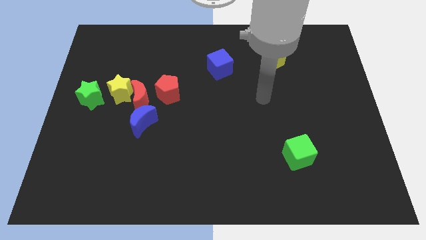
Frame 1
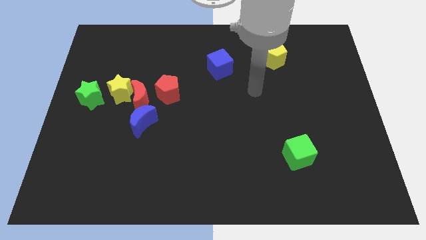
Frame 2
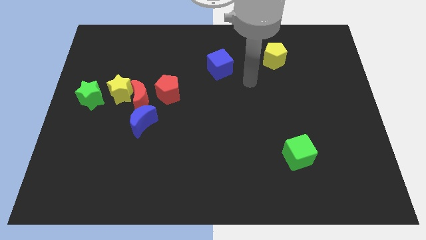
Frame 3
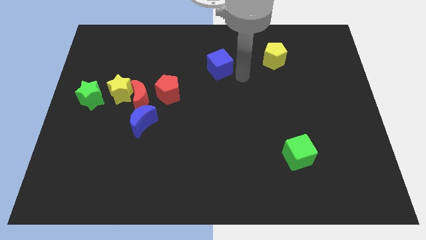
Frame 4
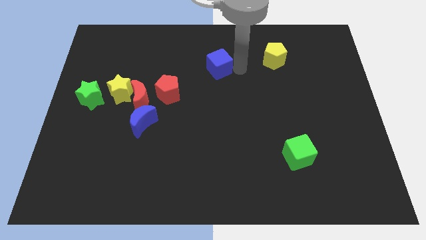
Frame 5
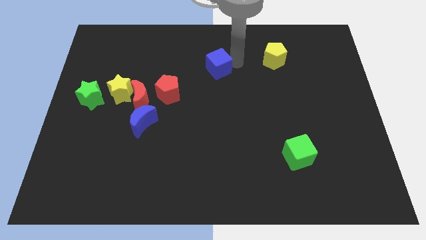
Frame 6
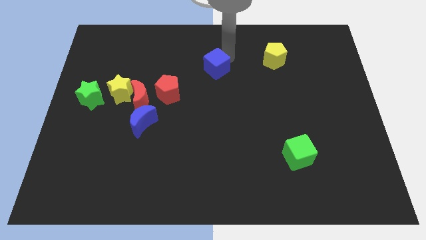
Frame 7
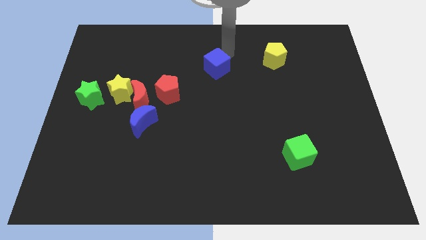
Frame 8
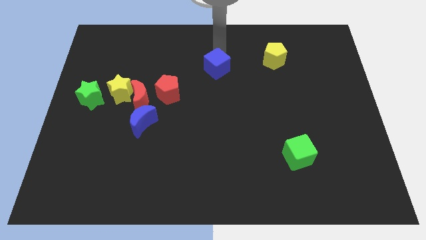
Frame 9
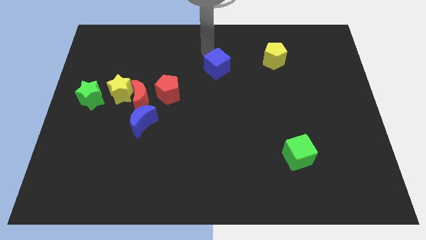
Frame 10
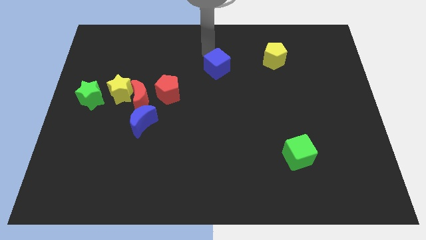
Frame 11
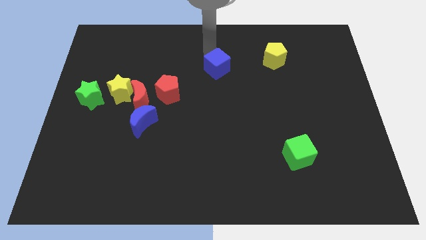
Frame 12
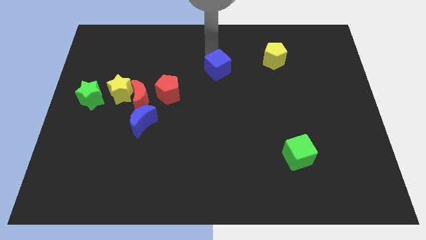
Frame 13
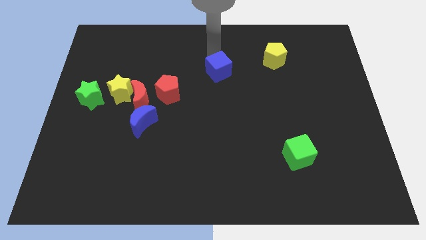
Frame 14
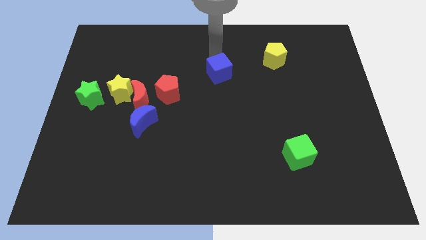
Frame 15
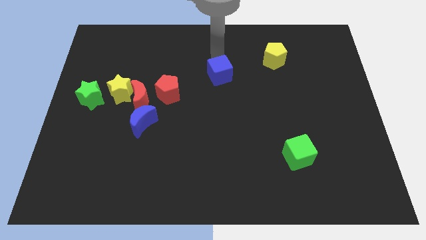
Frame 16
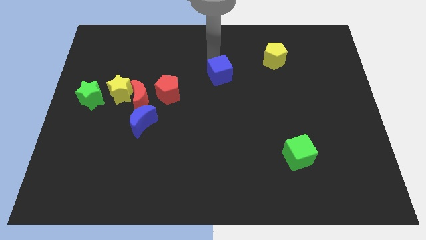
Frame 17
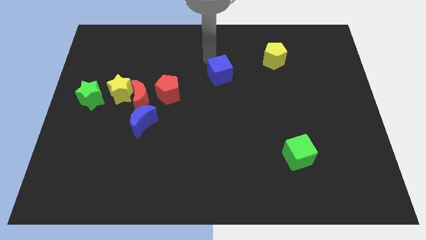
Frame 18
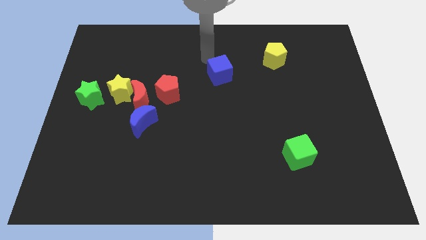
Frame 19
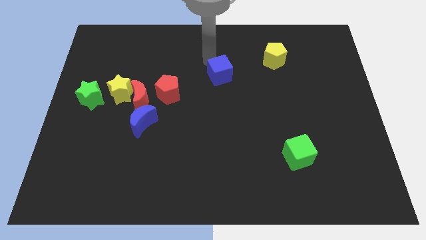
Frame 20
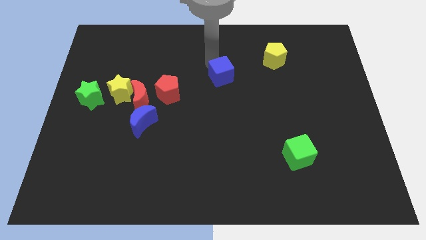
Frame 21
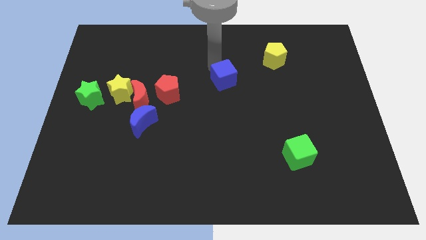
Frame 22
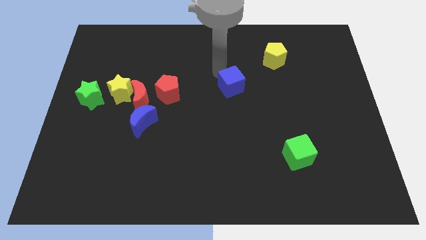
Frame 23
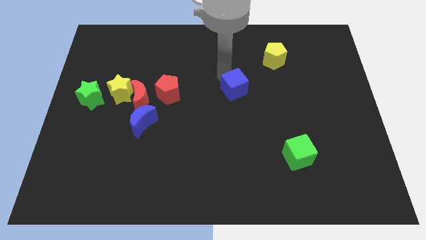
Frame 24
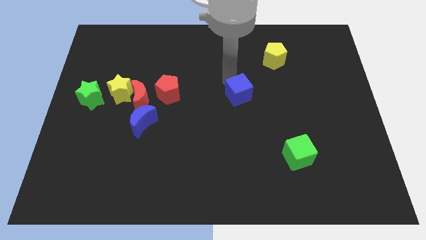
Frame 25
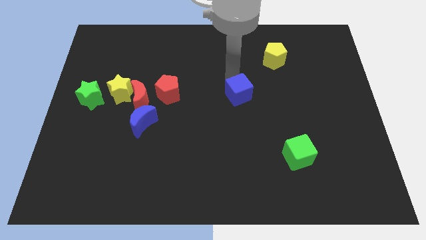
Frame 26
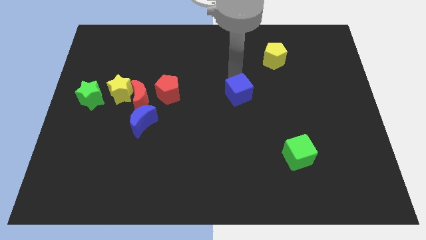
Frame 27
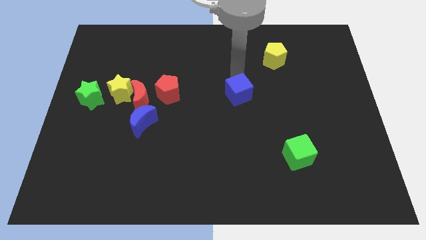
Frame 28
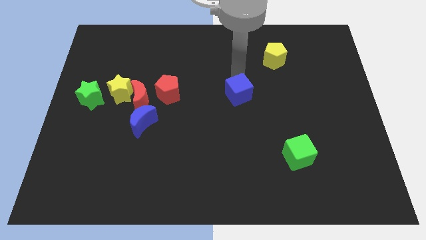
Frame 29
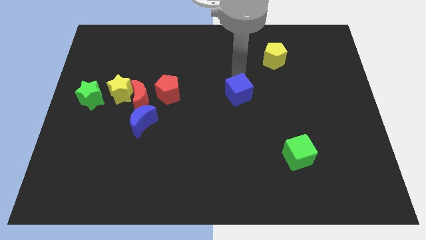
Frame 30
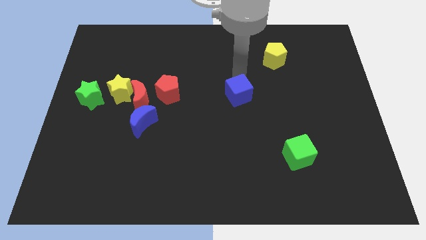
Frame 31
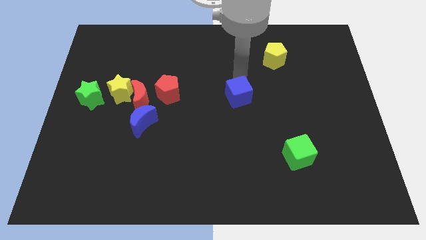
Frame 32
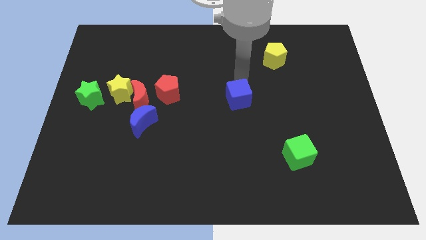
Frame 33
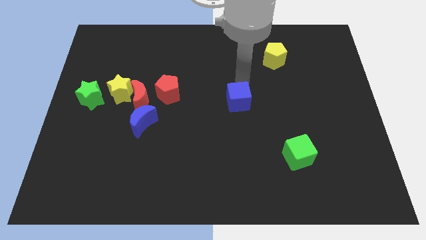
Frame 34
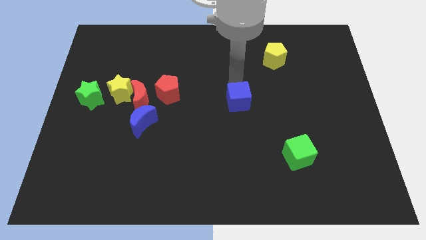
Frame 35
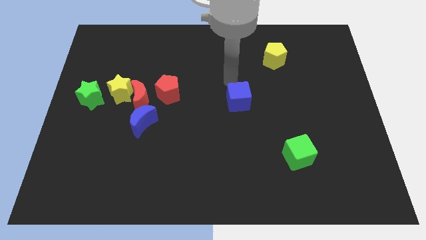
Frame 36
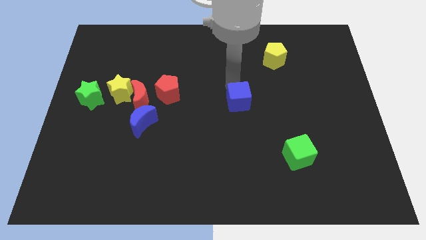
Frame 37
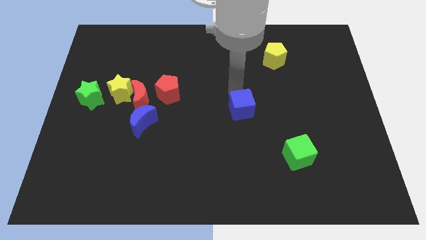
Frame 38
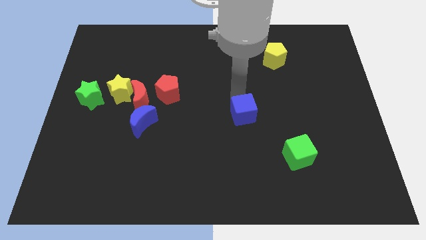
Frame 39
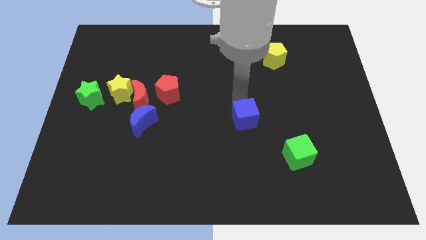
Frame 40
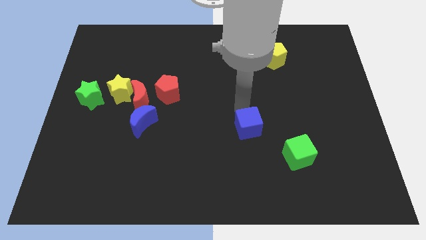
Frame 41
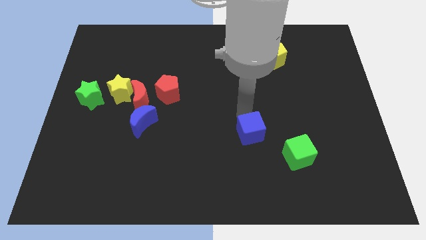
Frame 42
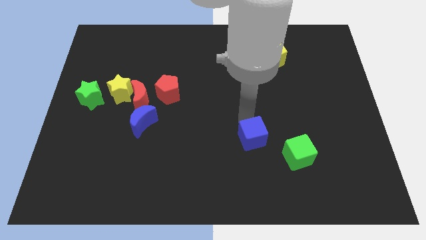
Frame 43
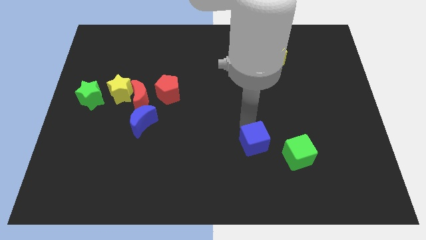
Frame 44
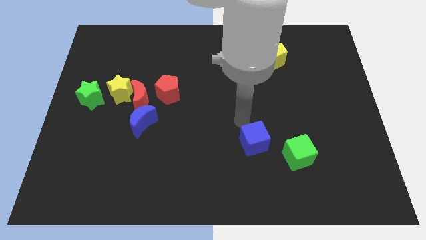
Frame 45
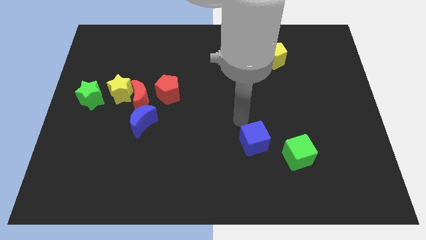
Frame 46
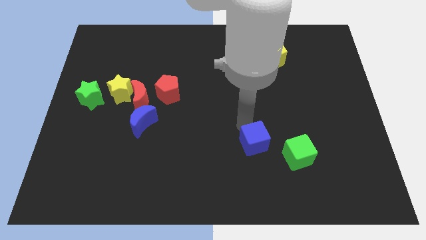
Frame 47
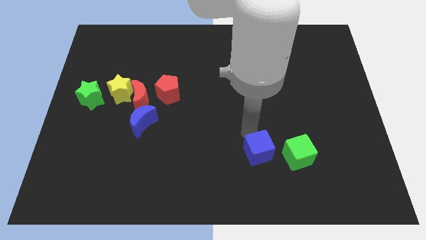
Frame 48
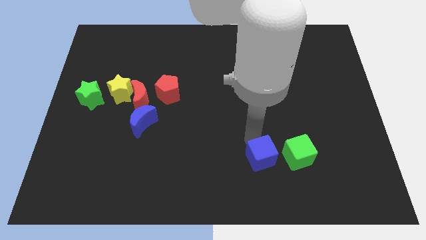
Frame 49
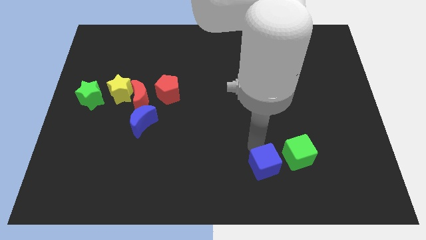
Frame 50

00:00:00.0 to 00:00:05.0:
slide the blue cube to the bottom left side of the green cube

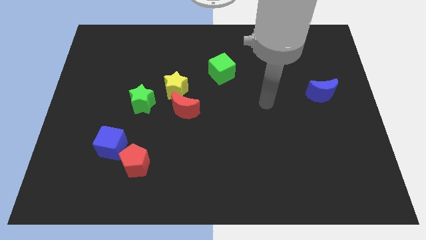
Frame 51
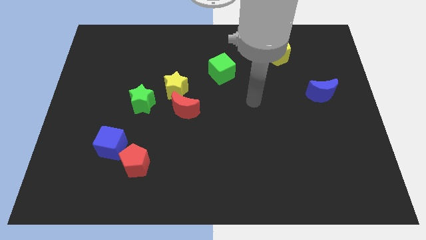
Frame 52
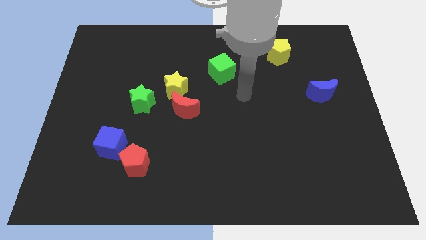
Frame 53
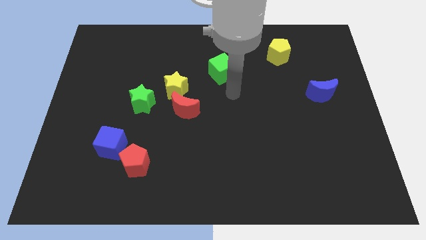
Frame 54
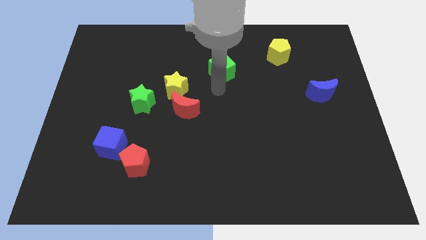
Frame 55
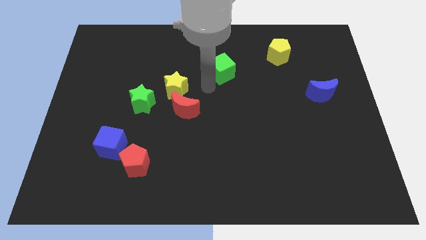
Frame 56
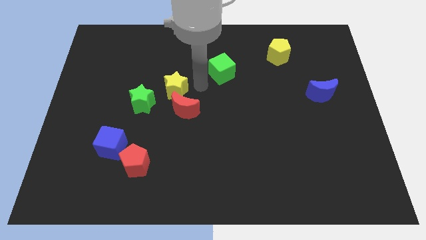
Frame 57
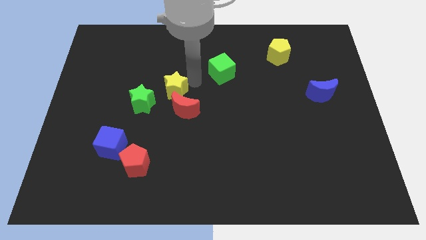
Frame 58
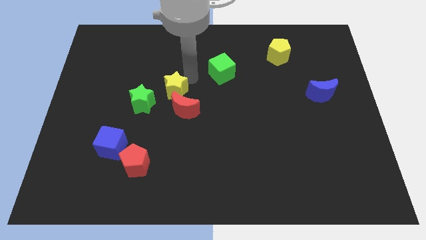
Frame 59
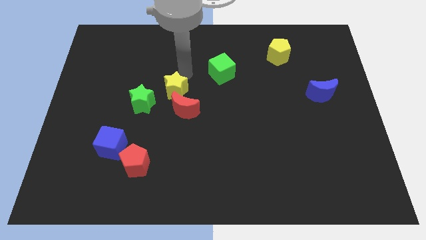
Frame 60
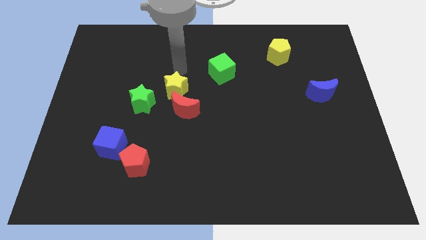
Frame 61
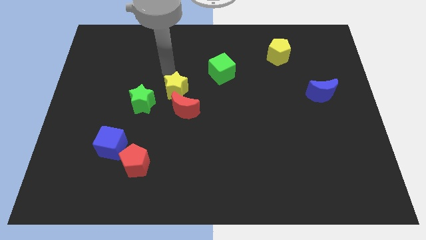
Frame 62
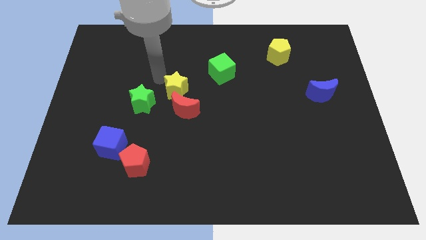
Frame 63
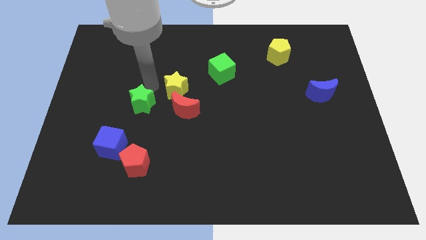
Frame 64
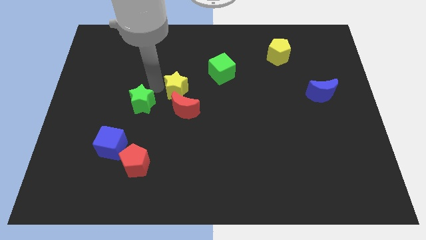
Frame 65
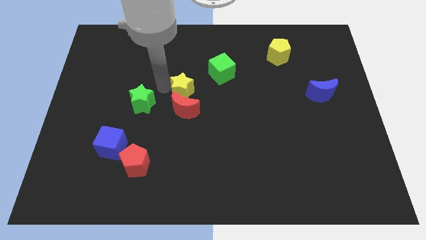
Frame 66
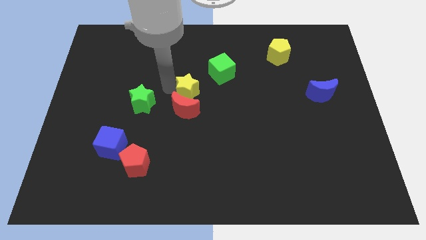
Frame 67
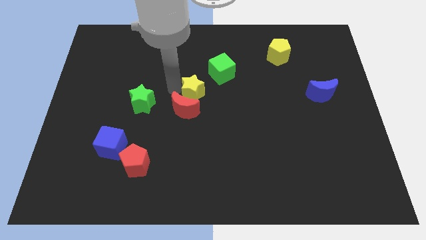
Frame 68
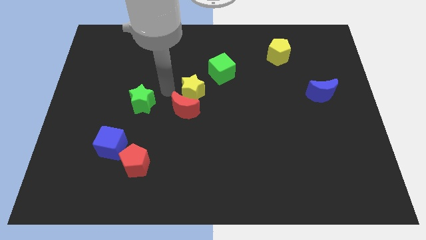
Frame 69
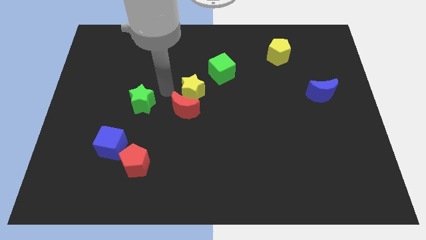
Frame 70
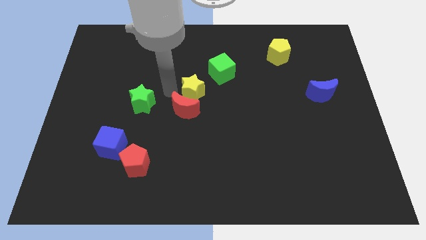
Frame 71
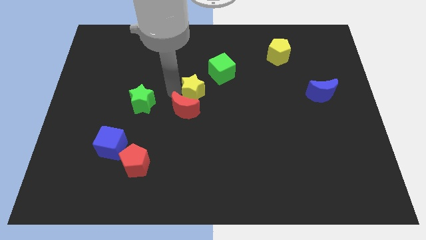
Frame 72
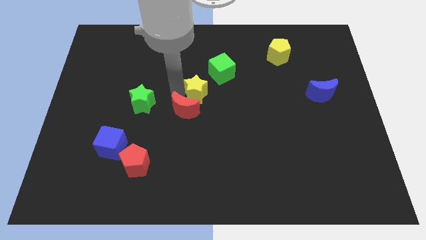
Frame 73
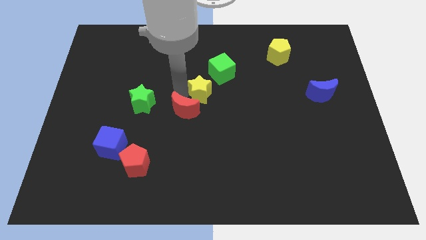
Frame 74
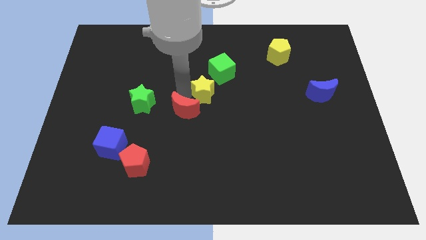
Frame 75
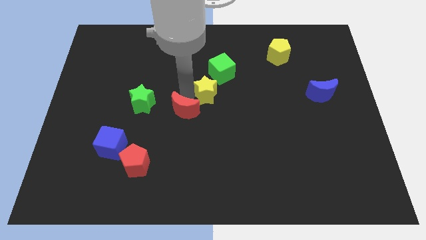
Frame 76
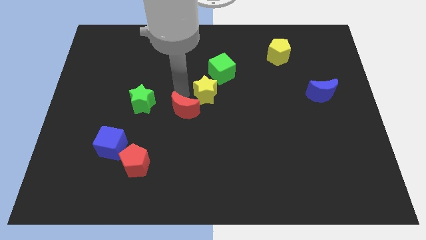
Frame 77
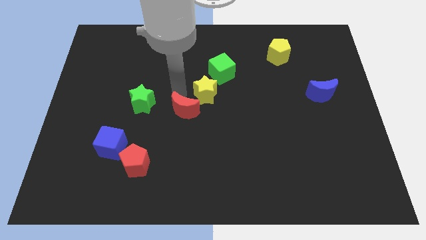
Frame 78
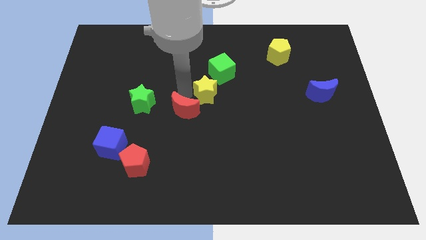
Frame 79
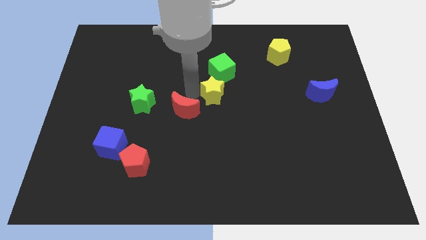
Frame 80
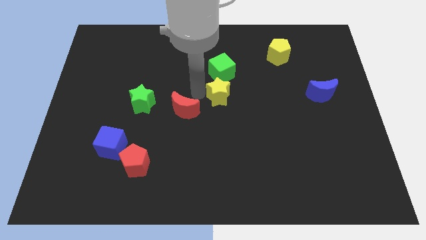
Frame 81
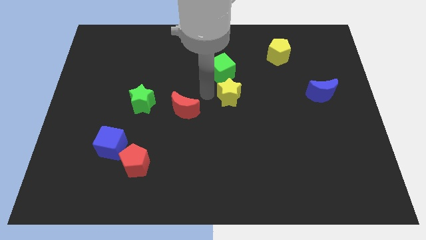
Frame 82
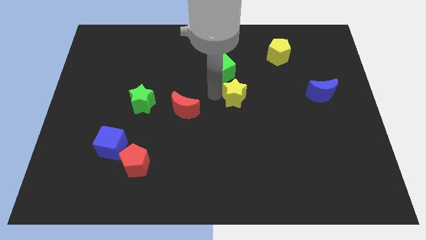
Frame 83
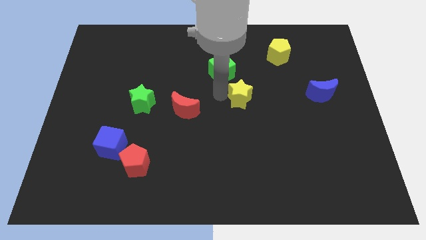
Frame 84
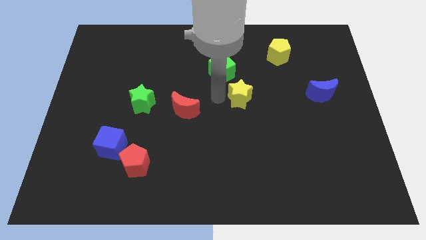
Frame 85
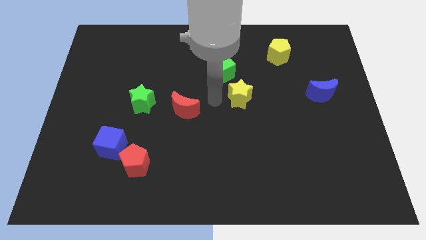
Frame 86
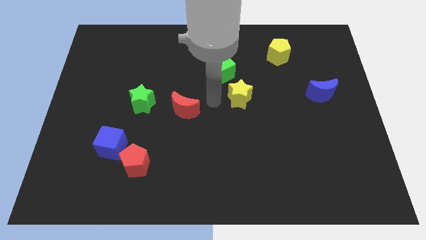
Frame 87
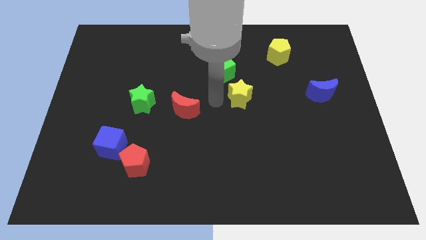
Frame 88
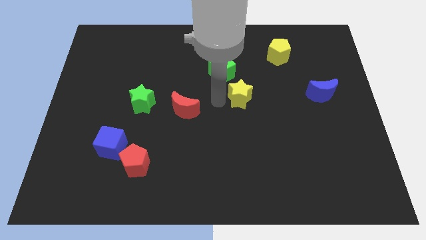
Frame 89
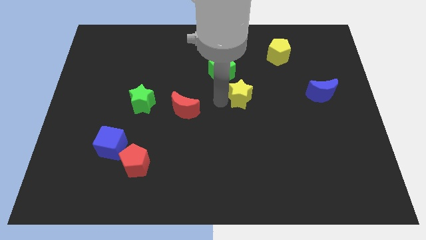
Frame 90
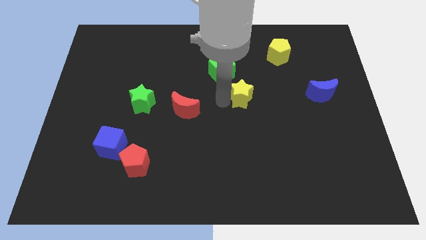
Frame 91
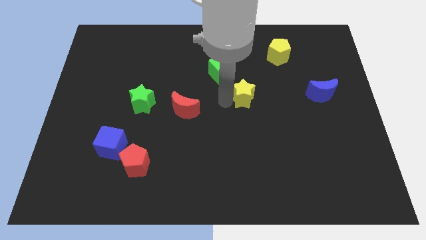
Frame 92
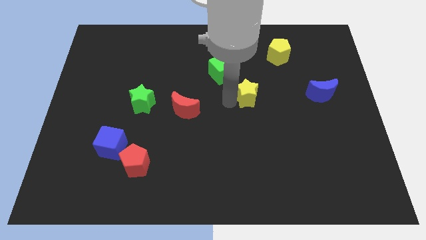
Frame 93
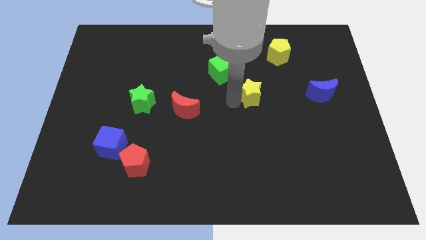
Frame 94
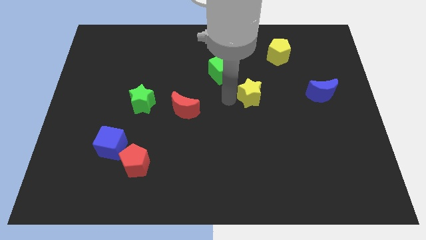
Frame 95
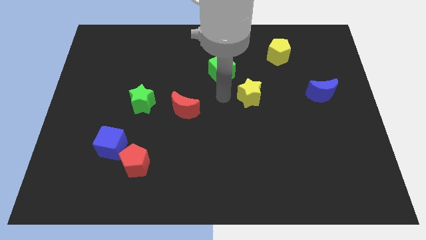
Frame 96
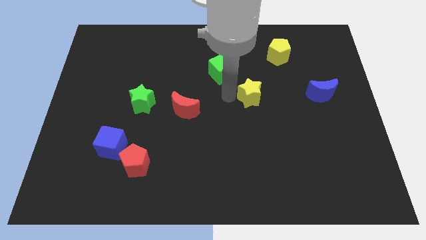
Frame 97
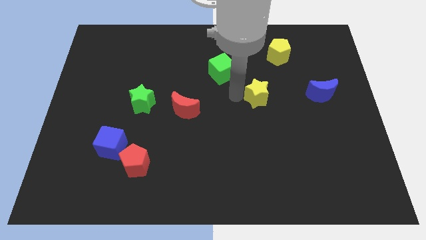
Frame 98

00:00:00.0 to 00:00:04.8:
slide the yellow star just left of the blue moon
